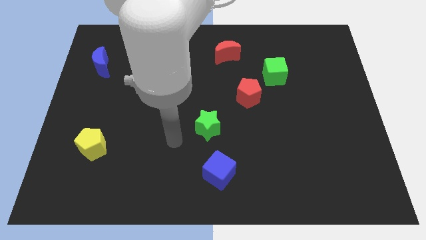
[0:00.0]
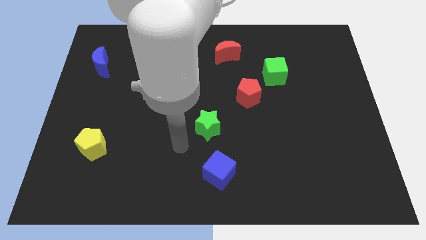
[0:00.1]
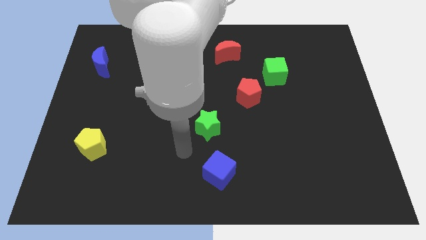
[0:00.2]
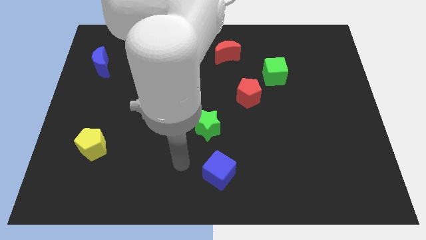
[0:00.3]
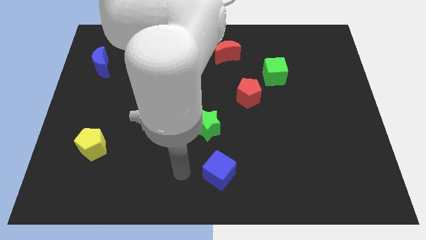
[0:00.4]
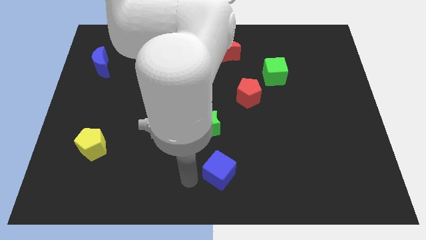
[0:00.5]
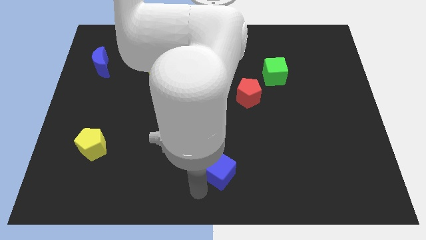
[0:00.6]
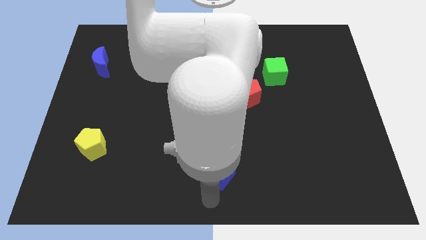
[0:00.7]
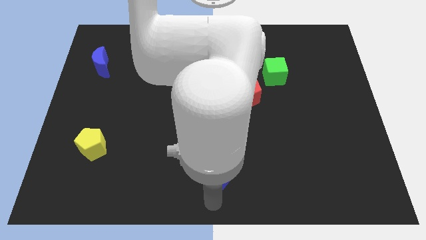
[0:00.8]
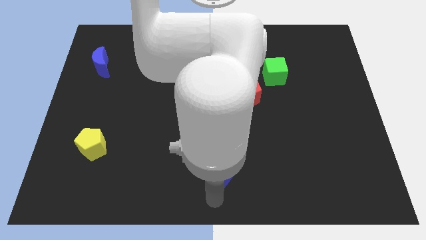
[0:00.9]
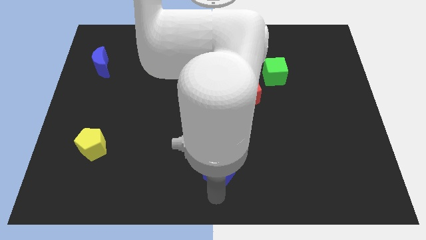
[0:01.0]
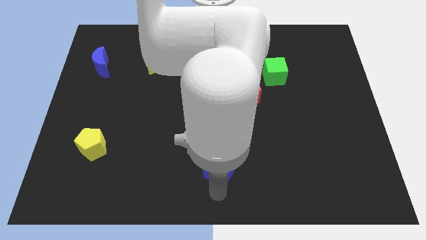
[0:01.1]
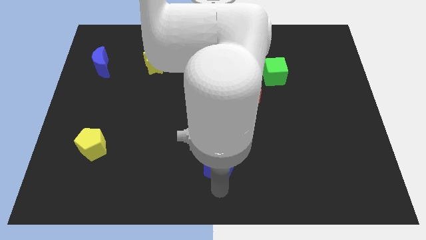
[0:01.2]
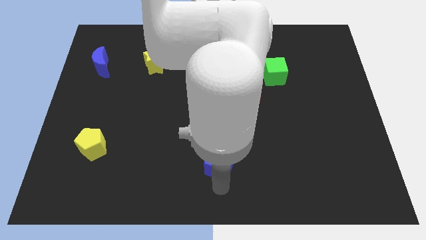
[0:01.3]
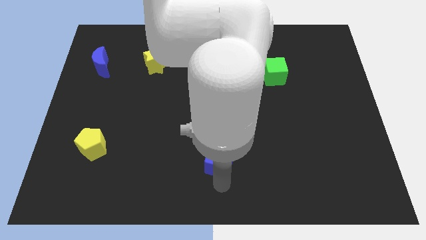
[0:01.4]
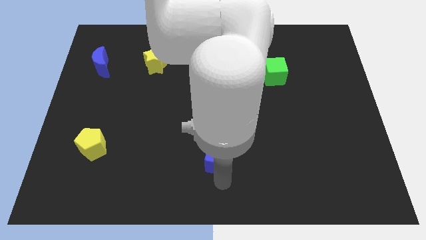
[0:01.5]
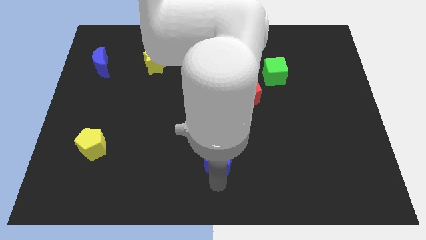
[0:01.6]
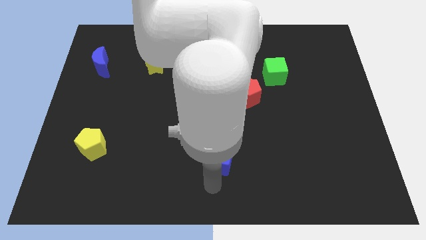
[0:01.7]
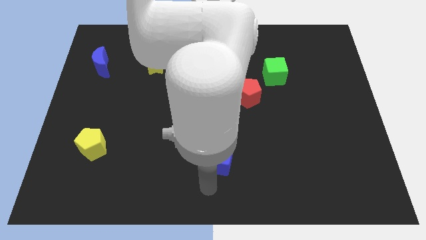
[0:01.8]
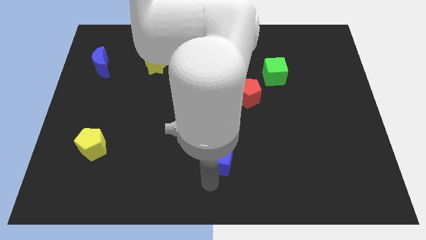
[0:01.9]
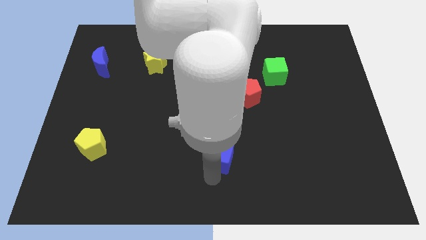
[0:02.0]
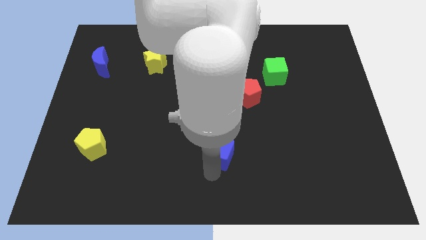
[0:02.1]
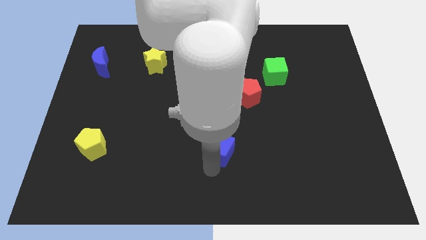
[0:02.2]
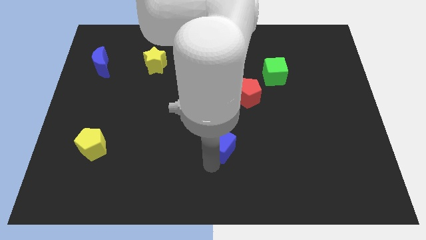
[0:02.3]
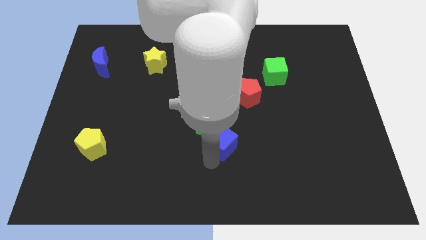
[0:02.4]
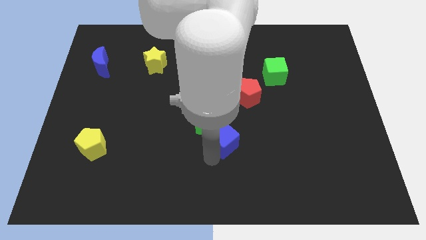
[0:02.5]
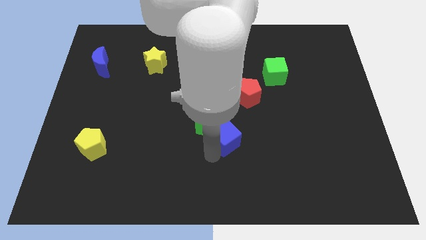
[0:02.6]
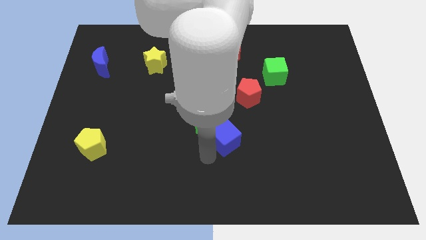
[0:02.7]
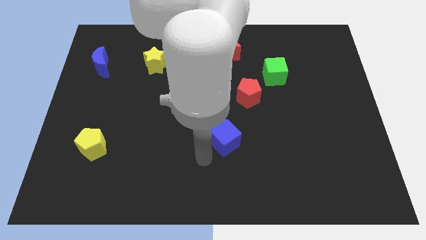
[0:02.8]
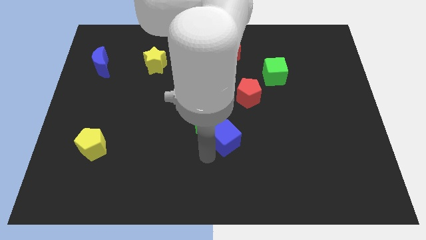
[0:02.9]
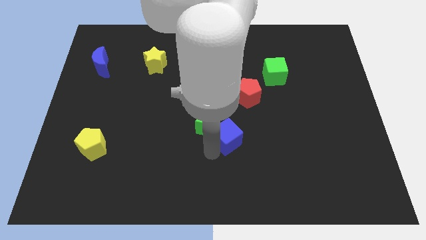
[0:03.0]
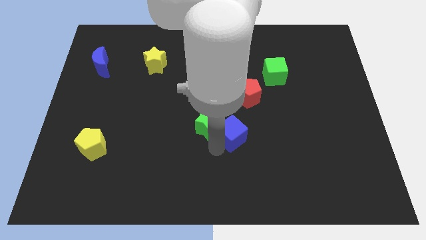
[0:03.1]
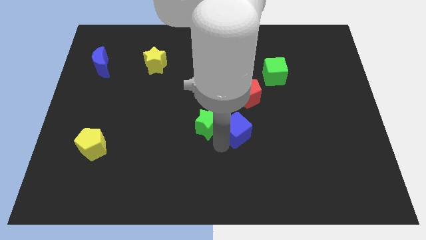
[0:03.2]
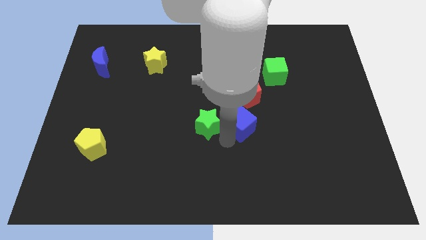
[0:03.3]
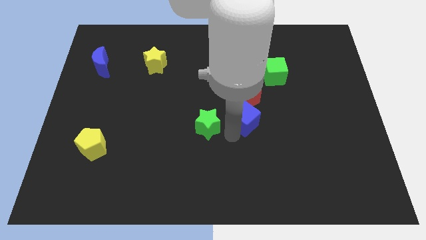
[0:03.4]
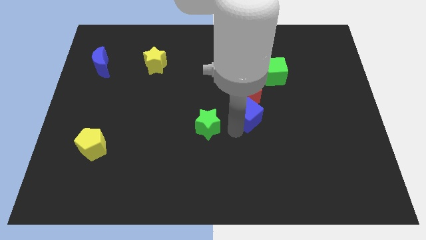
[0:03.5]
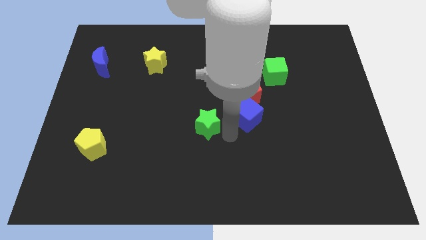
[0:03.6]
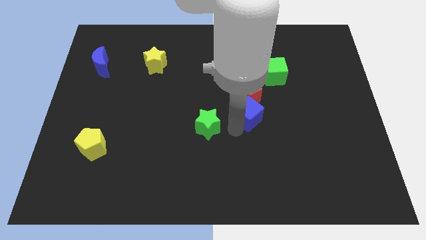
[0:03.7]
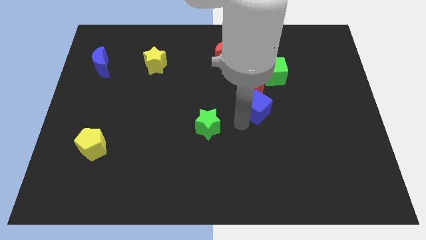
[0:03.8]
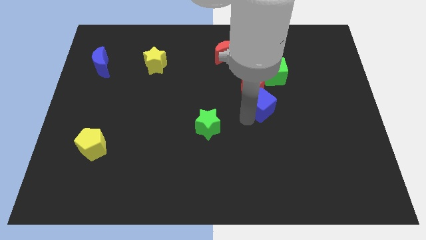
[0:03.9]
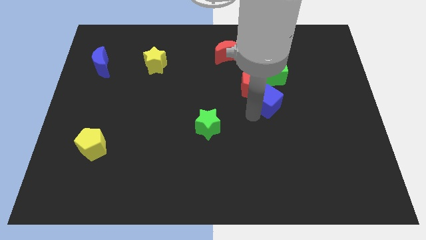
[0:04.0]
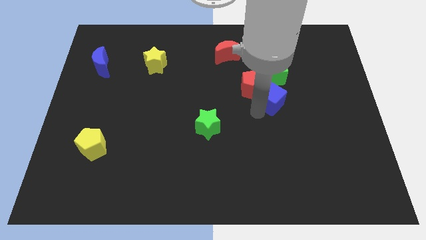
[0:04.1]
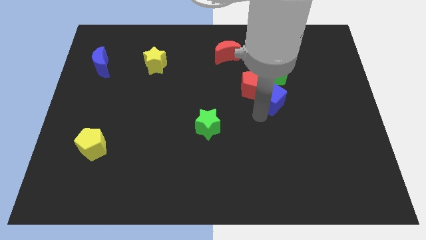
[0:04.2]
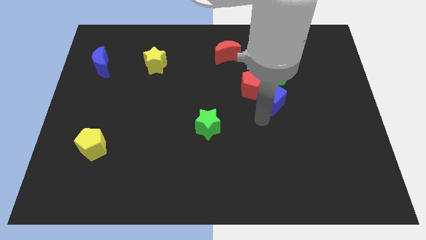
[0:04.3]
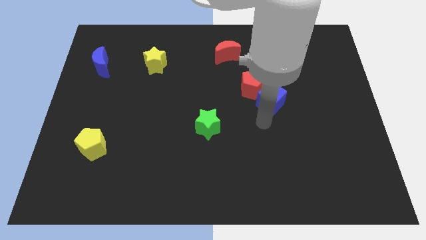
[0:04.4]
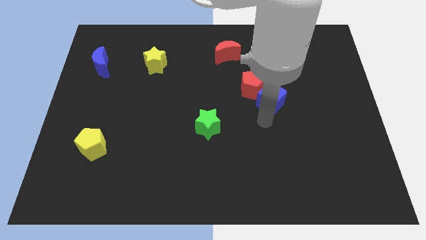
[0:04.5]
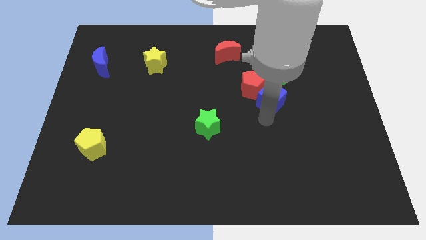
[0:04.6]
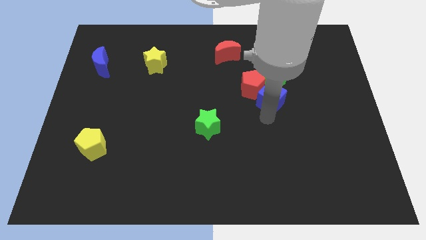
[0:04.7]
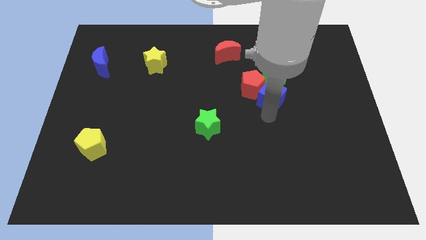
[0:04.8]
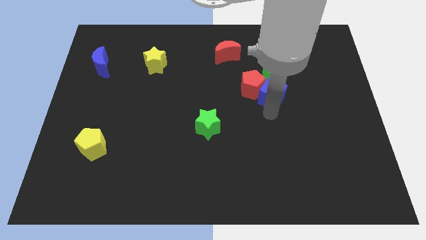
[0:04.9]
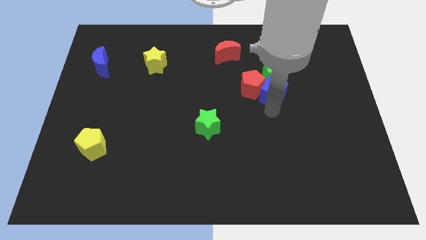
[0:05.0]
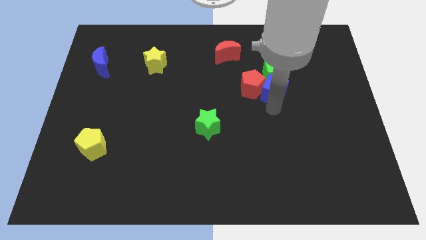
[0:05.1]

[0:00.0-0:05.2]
push the blue cube towards the green cube

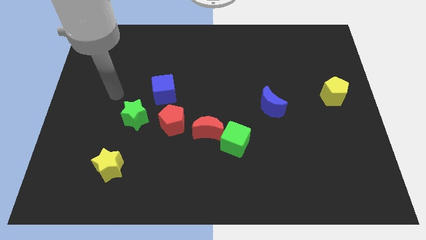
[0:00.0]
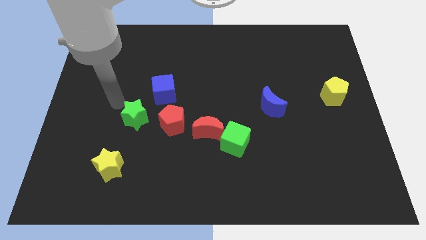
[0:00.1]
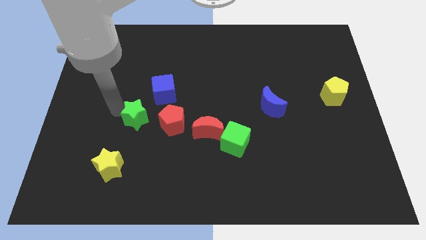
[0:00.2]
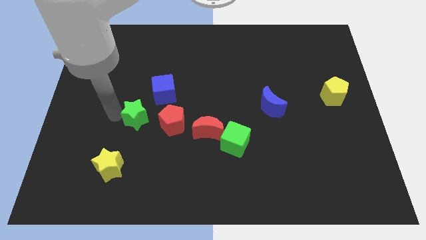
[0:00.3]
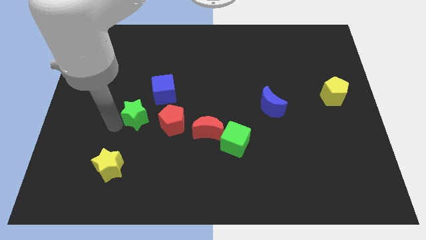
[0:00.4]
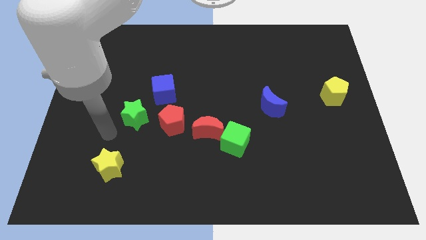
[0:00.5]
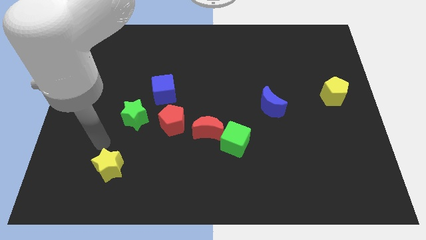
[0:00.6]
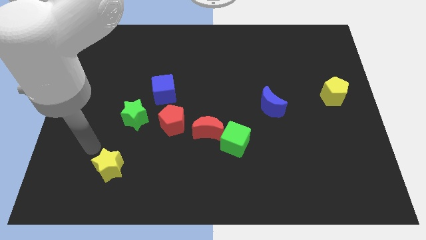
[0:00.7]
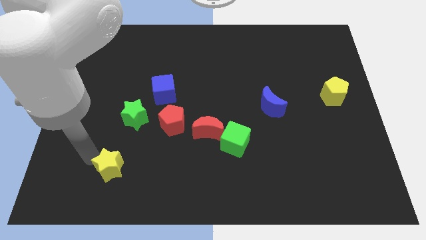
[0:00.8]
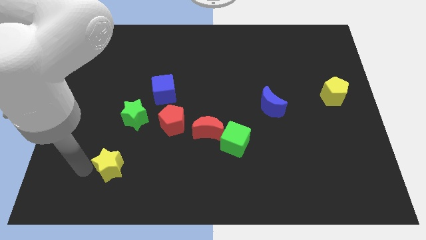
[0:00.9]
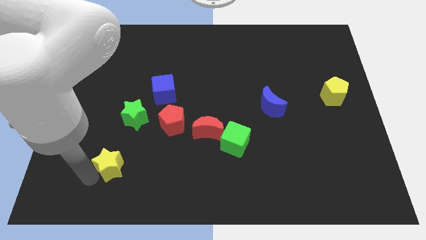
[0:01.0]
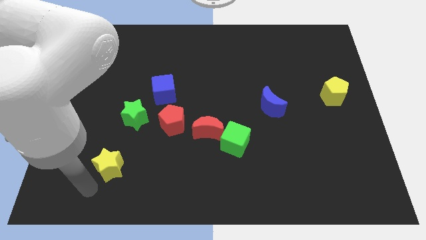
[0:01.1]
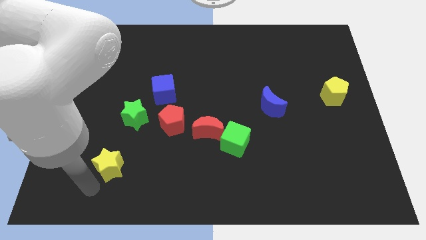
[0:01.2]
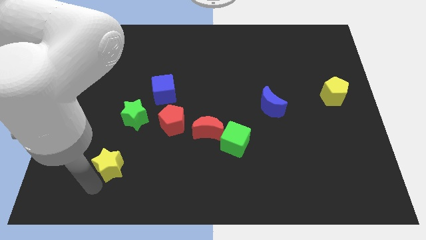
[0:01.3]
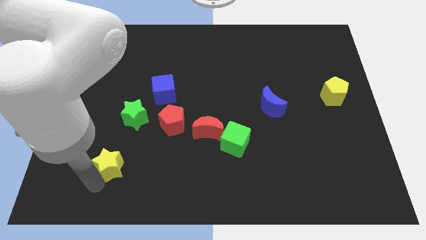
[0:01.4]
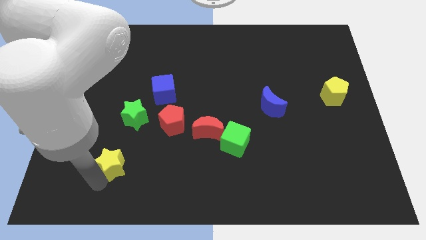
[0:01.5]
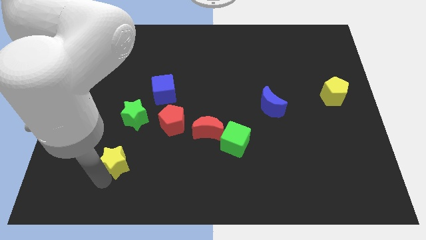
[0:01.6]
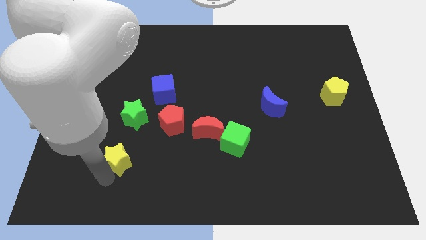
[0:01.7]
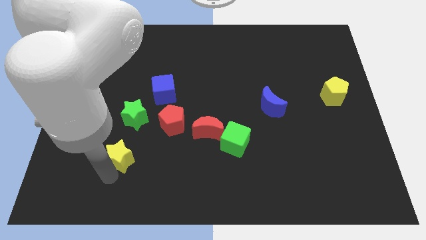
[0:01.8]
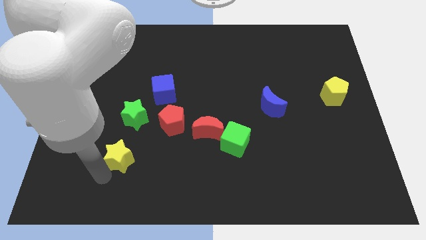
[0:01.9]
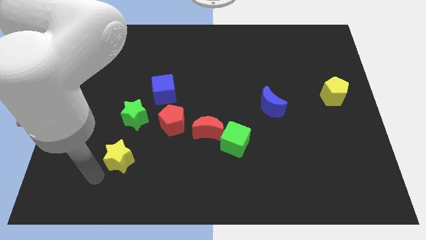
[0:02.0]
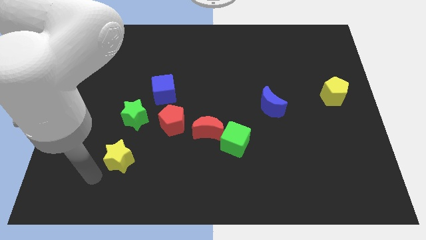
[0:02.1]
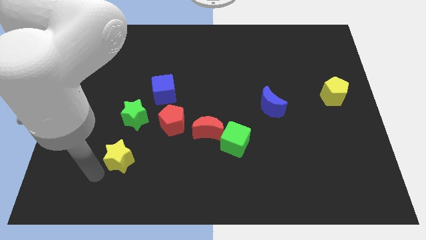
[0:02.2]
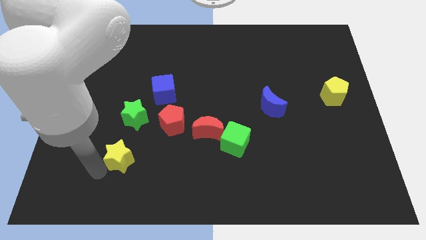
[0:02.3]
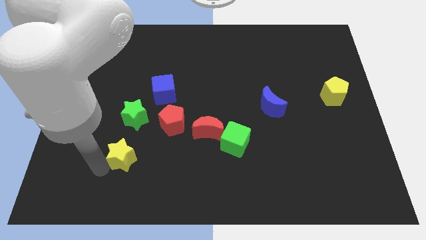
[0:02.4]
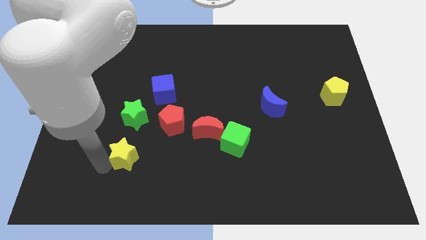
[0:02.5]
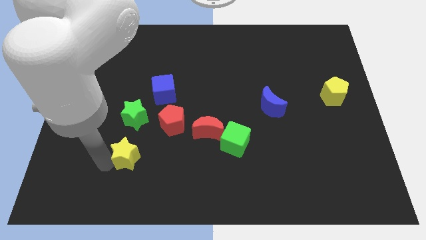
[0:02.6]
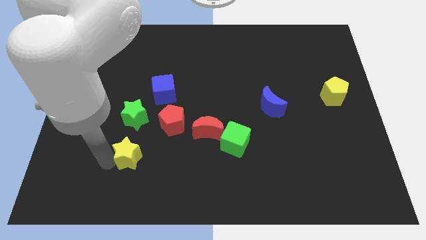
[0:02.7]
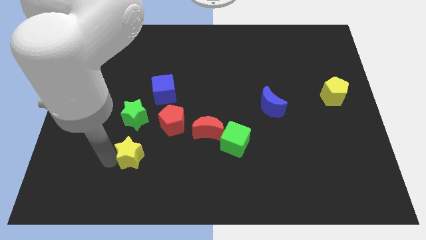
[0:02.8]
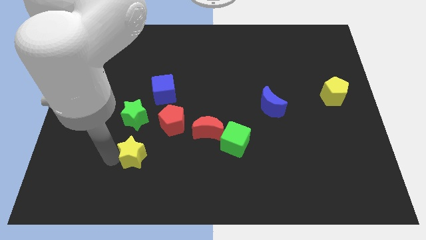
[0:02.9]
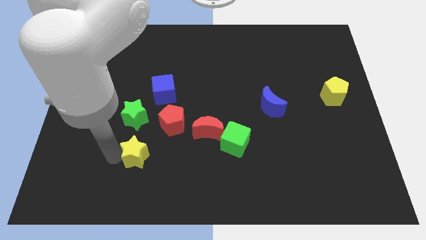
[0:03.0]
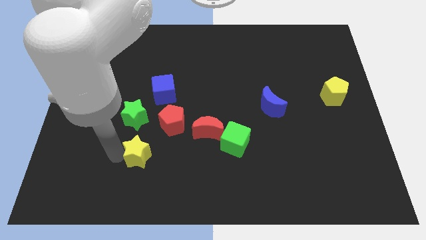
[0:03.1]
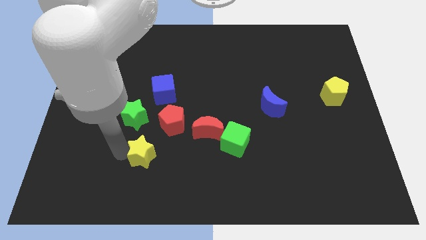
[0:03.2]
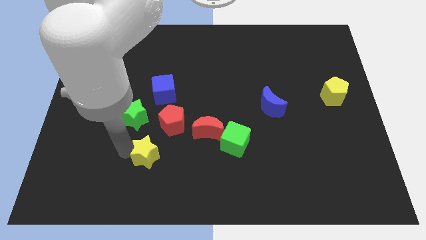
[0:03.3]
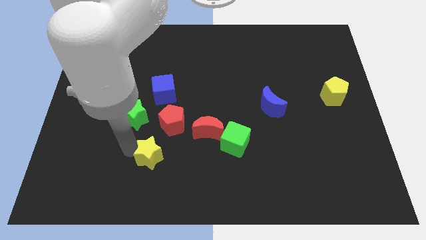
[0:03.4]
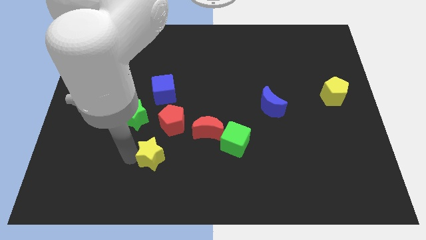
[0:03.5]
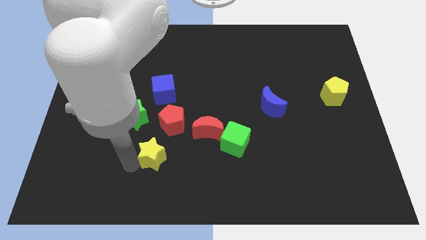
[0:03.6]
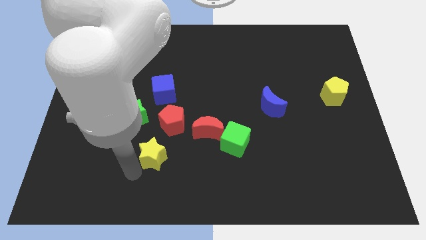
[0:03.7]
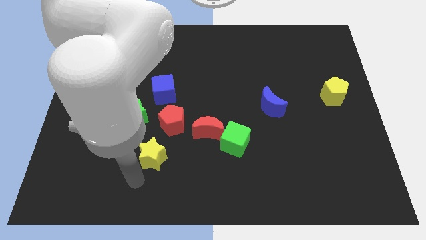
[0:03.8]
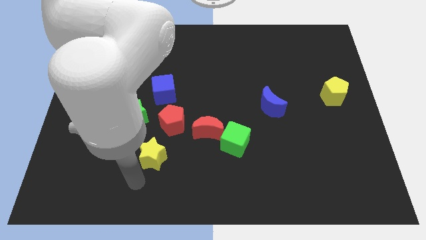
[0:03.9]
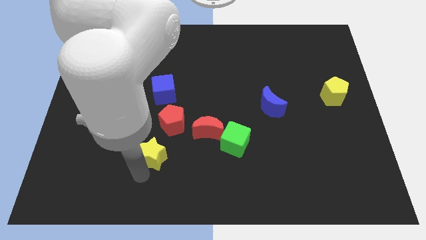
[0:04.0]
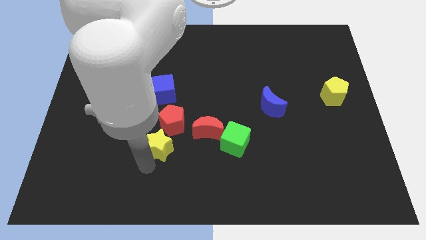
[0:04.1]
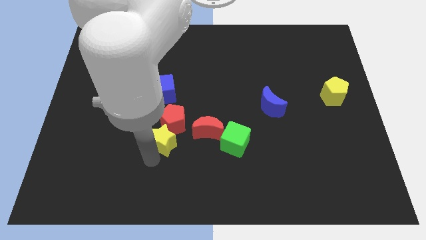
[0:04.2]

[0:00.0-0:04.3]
put the yellow star next to the red pentagon
